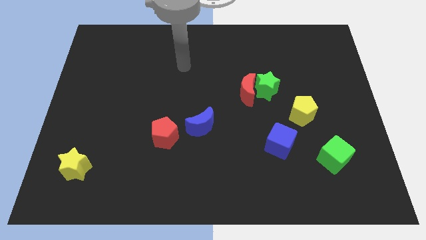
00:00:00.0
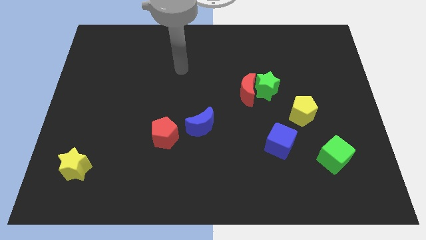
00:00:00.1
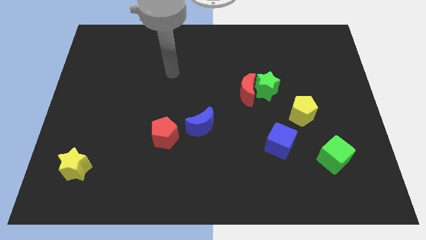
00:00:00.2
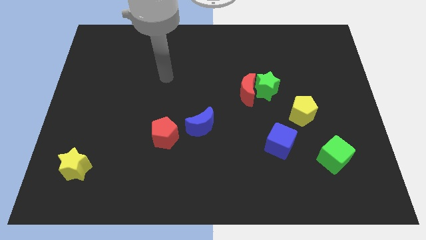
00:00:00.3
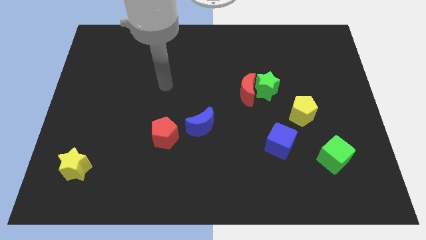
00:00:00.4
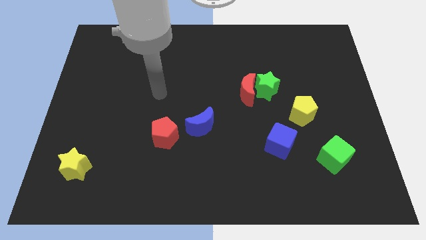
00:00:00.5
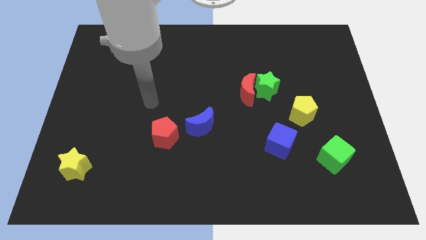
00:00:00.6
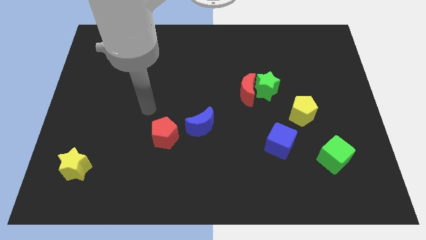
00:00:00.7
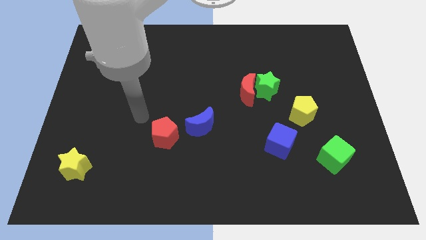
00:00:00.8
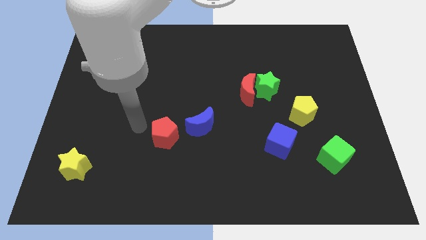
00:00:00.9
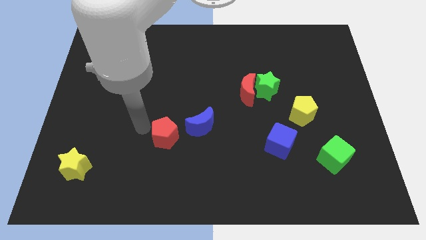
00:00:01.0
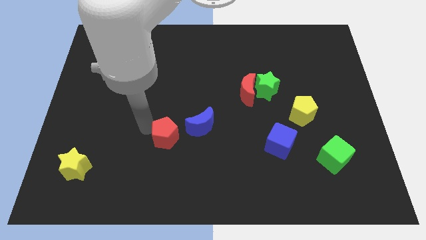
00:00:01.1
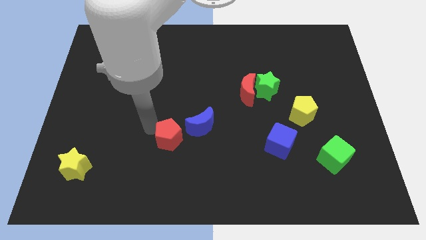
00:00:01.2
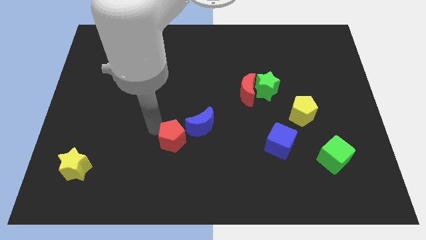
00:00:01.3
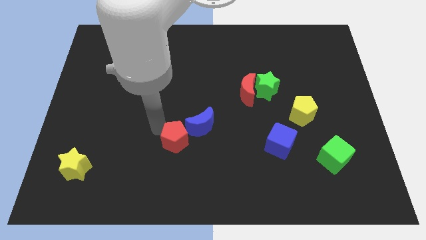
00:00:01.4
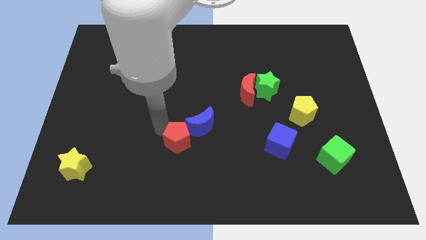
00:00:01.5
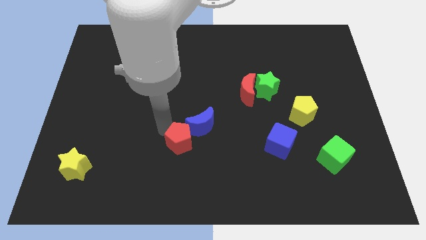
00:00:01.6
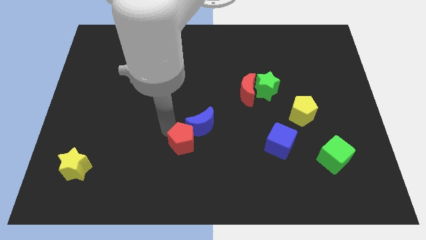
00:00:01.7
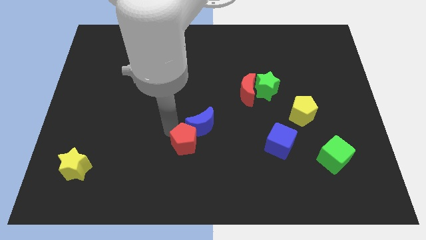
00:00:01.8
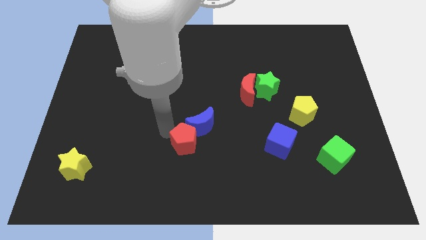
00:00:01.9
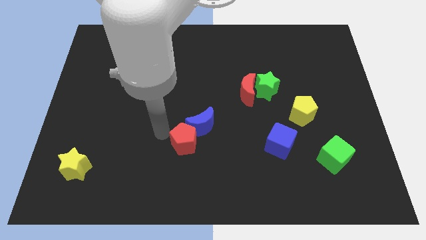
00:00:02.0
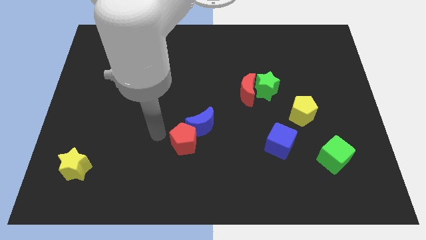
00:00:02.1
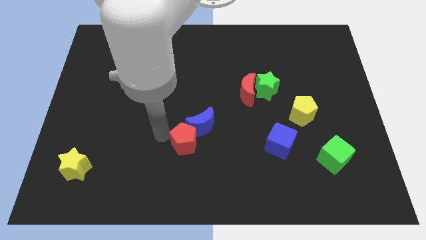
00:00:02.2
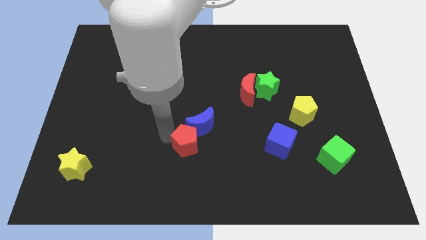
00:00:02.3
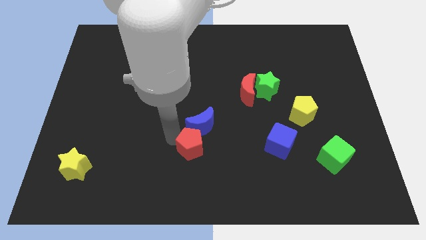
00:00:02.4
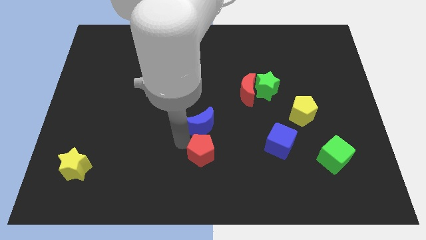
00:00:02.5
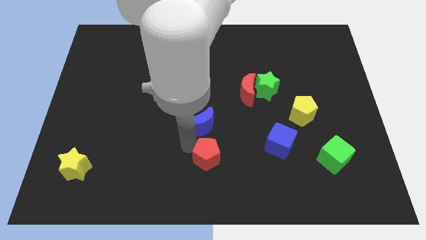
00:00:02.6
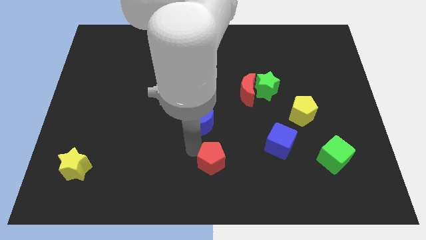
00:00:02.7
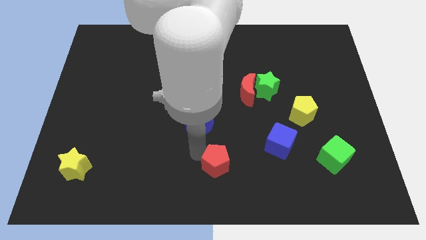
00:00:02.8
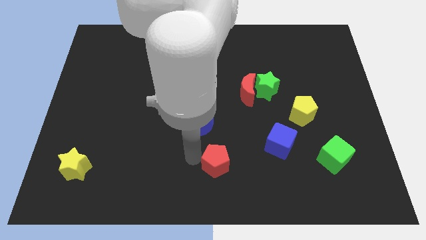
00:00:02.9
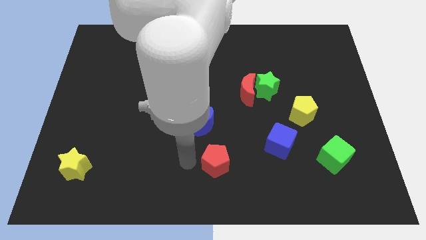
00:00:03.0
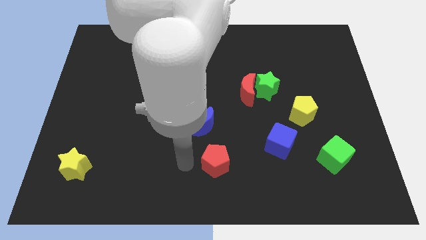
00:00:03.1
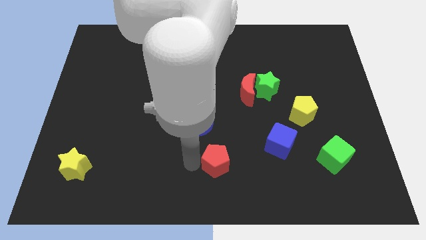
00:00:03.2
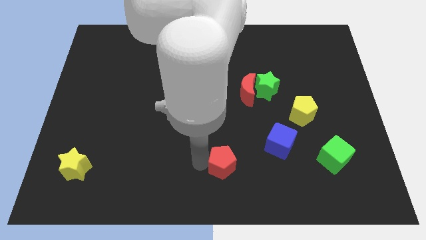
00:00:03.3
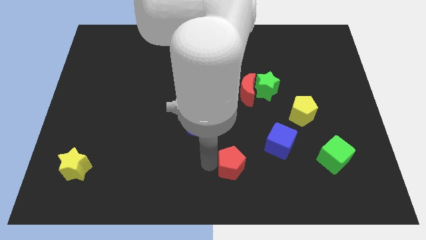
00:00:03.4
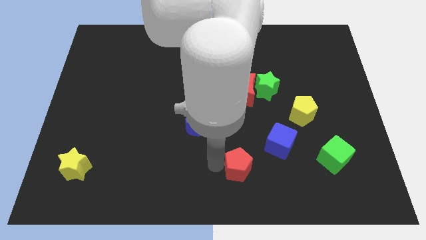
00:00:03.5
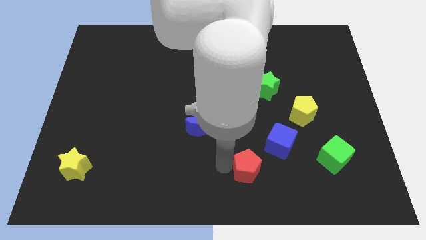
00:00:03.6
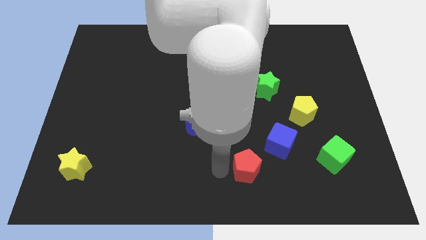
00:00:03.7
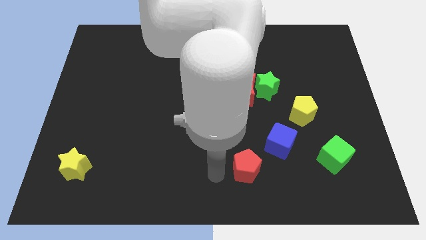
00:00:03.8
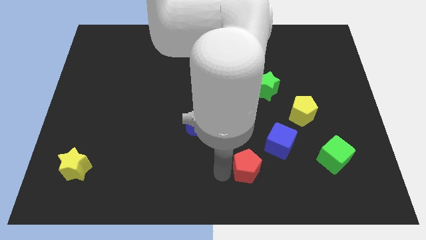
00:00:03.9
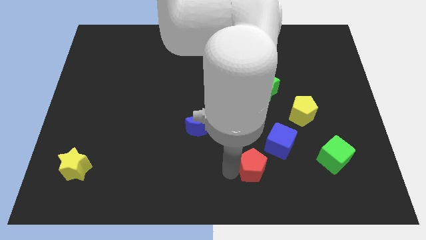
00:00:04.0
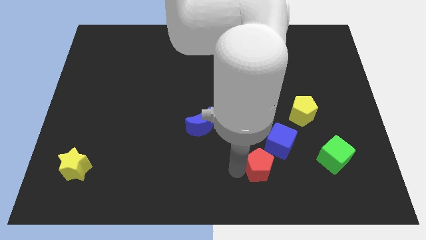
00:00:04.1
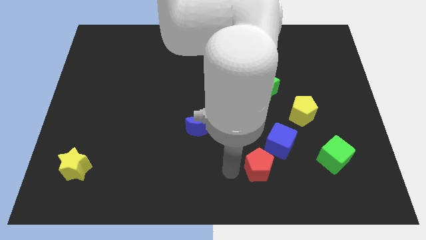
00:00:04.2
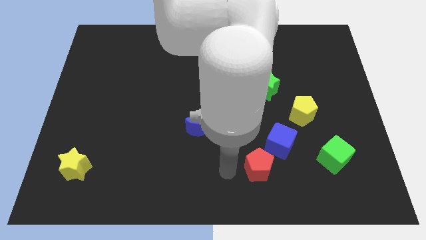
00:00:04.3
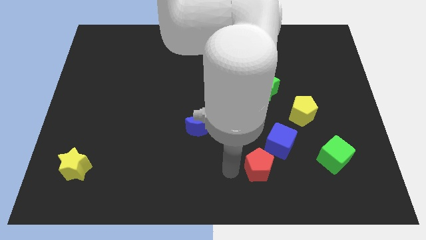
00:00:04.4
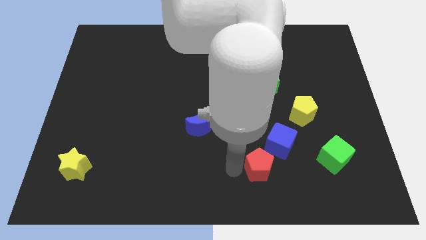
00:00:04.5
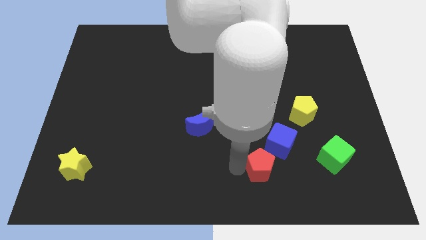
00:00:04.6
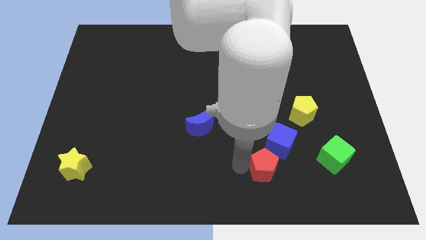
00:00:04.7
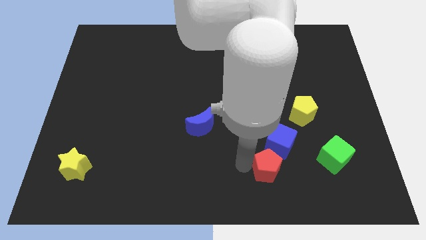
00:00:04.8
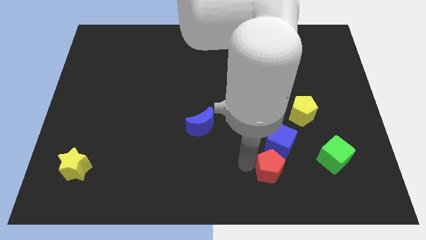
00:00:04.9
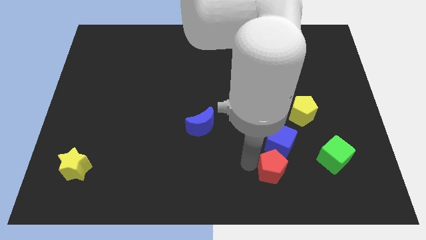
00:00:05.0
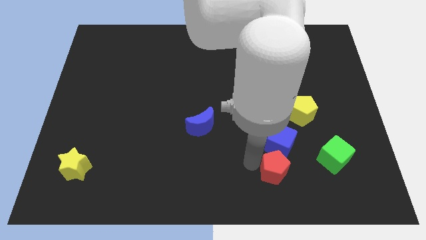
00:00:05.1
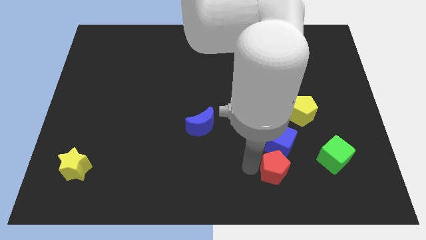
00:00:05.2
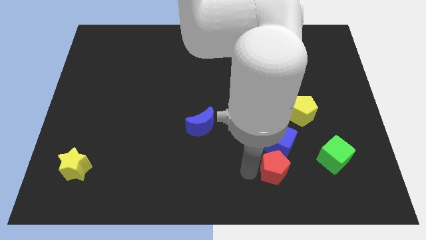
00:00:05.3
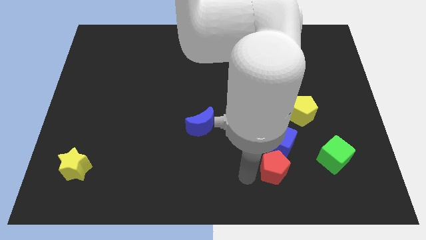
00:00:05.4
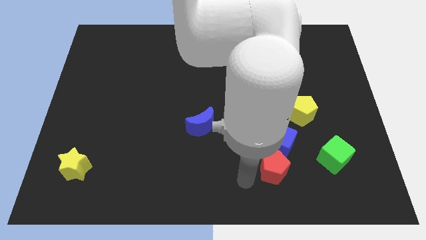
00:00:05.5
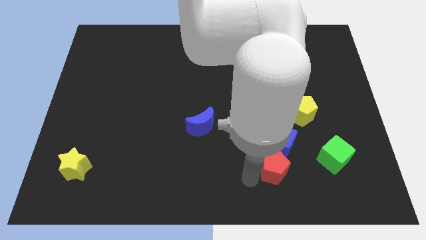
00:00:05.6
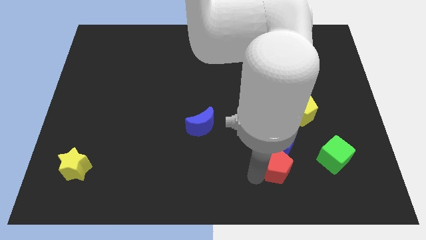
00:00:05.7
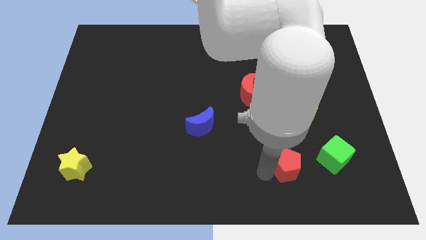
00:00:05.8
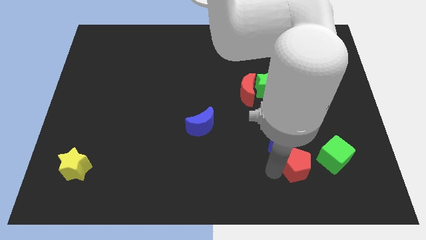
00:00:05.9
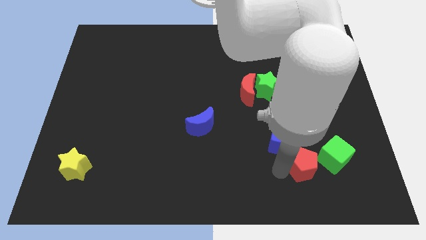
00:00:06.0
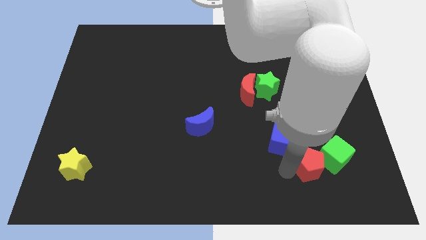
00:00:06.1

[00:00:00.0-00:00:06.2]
push the red pentagon towards the green cube

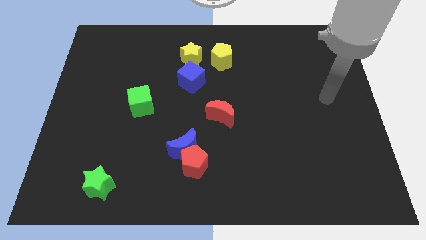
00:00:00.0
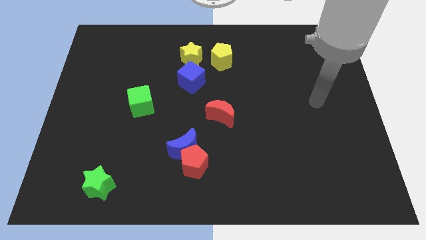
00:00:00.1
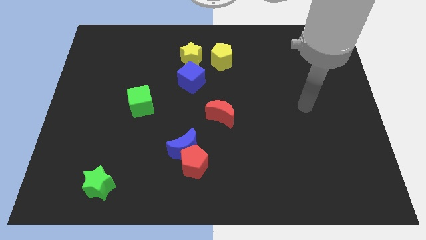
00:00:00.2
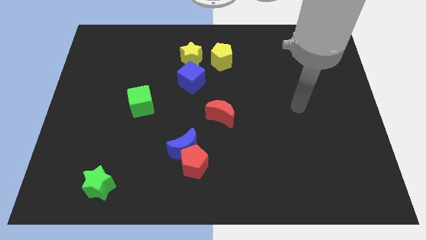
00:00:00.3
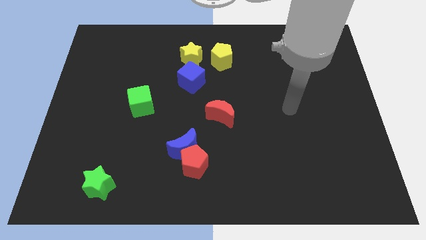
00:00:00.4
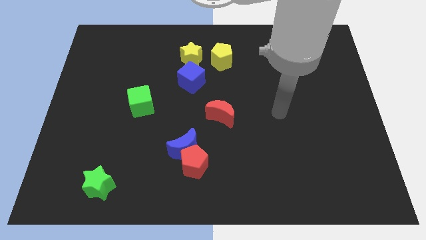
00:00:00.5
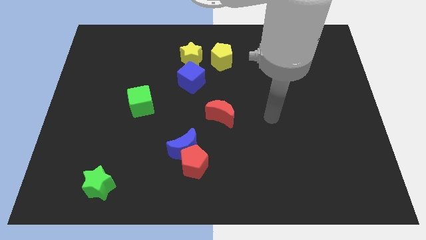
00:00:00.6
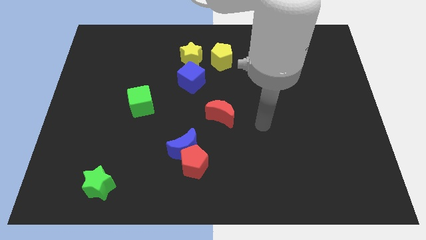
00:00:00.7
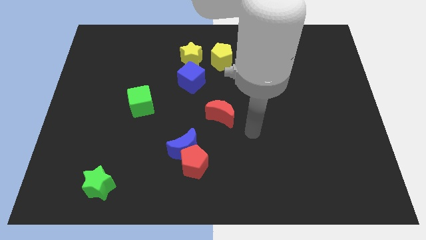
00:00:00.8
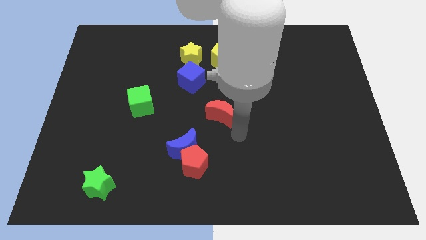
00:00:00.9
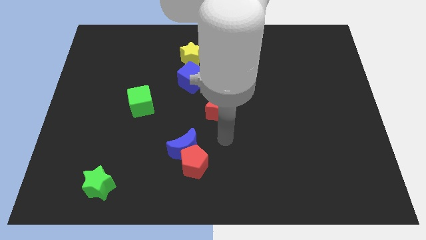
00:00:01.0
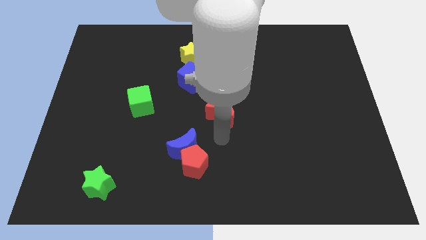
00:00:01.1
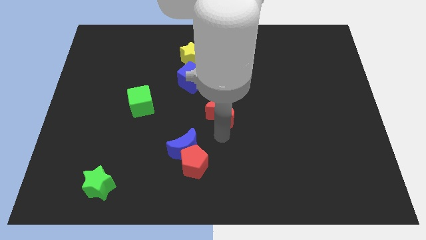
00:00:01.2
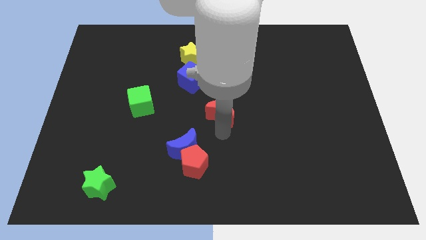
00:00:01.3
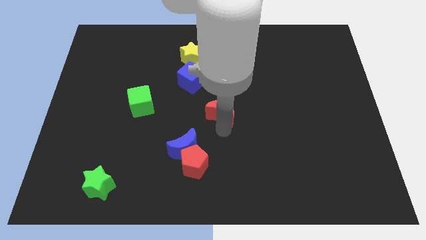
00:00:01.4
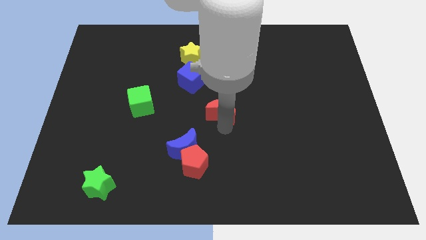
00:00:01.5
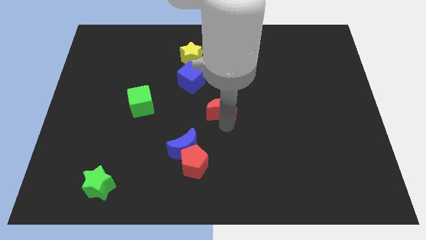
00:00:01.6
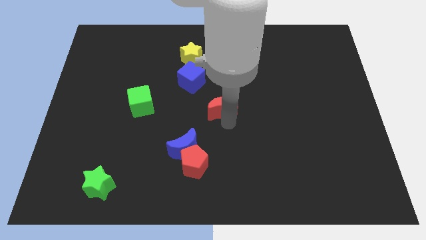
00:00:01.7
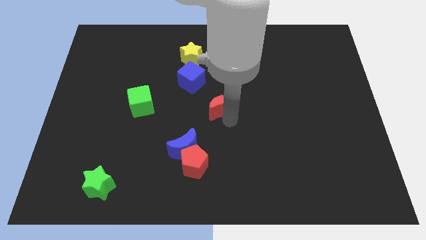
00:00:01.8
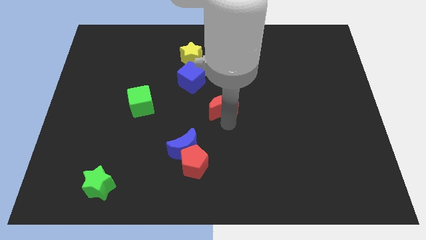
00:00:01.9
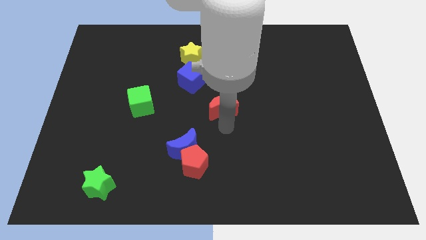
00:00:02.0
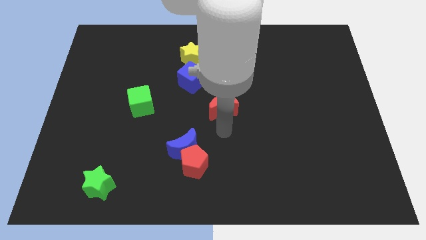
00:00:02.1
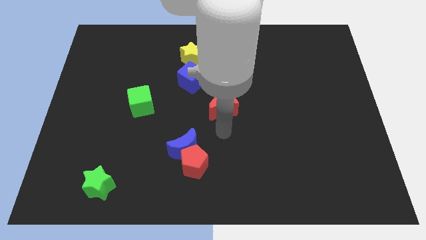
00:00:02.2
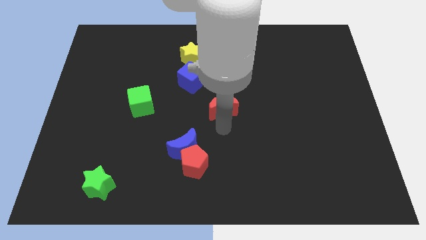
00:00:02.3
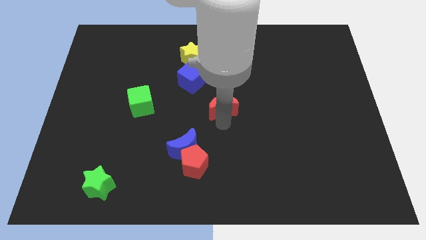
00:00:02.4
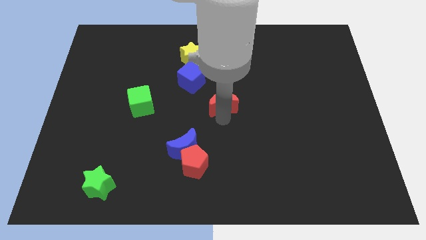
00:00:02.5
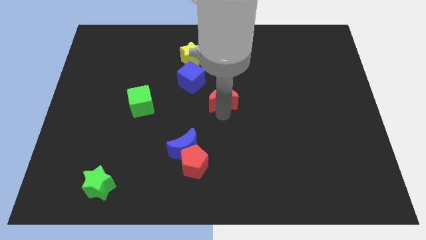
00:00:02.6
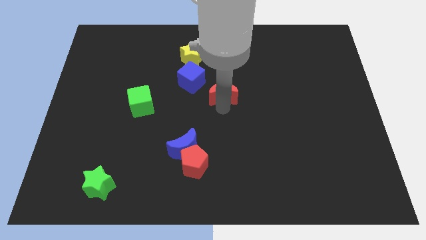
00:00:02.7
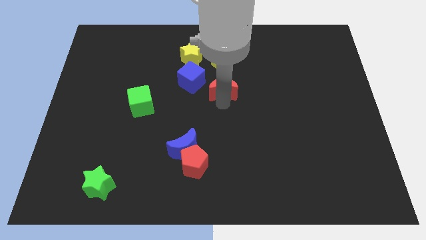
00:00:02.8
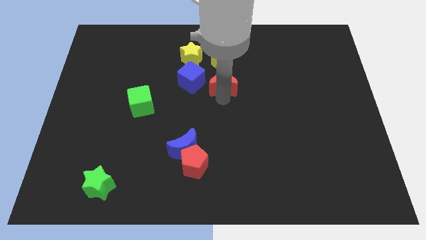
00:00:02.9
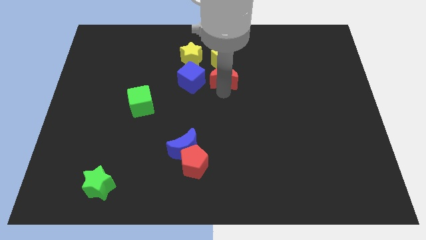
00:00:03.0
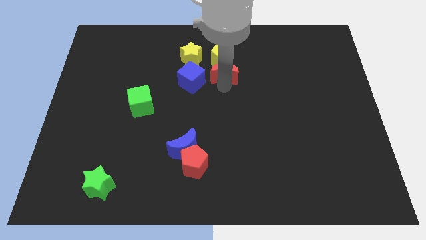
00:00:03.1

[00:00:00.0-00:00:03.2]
push the red moon to the yellow pentagon
